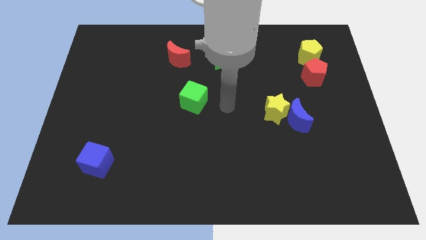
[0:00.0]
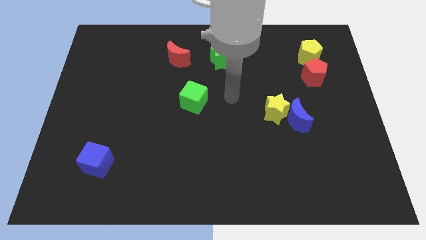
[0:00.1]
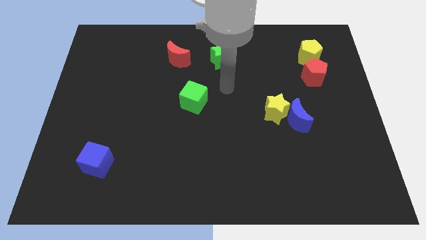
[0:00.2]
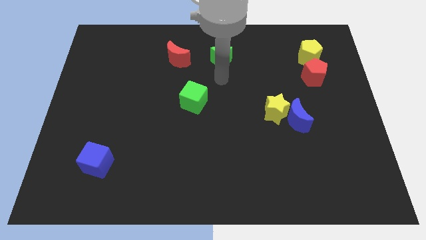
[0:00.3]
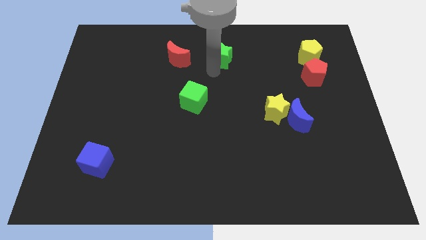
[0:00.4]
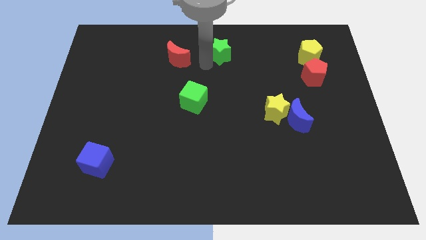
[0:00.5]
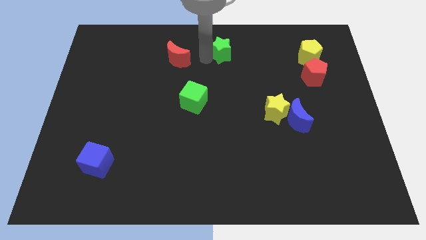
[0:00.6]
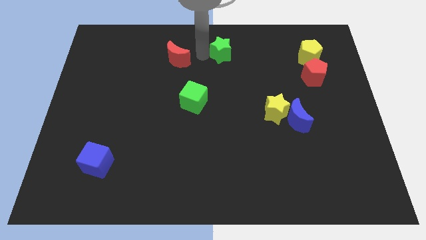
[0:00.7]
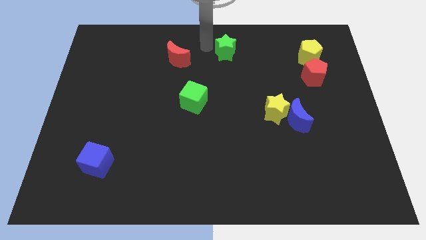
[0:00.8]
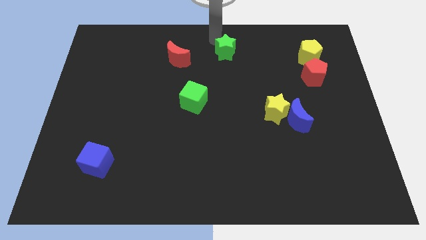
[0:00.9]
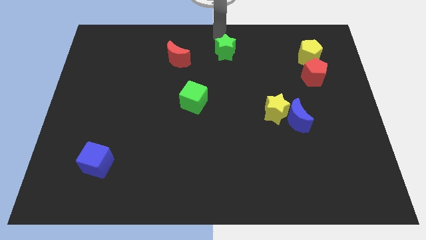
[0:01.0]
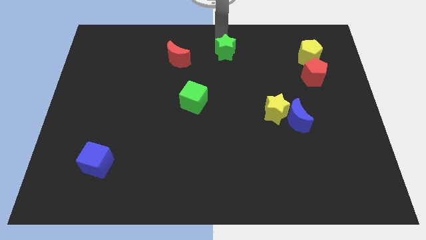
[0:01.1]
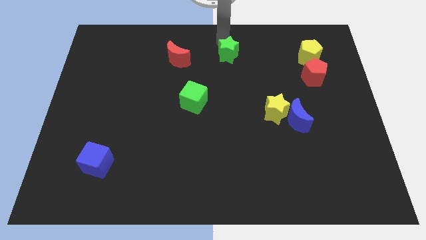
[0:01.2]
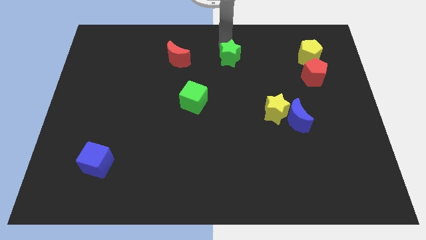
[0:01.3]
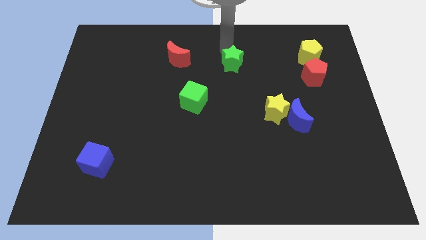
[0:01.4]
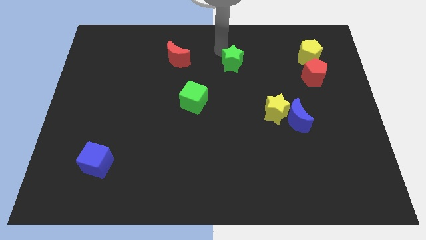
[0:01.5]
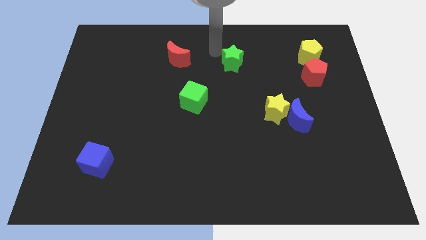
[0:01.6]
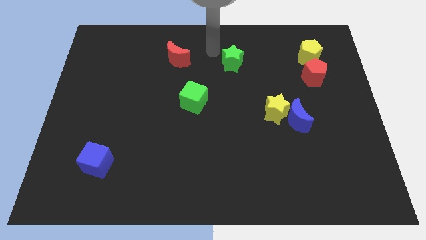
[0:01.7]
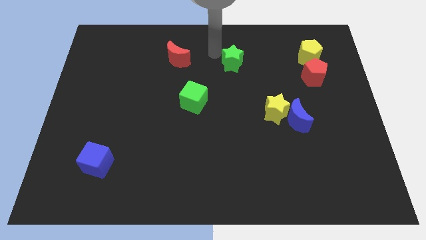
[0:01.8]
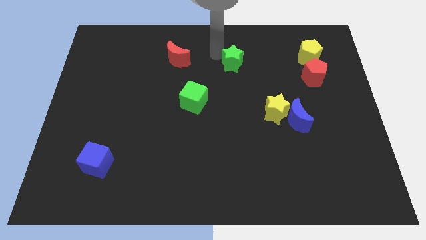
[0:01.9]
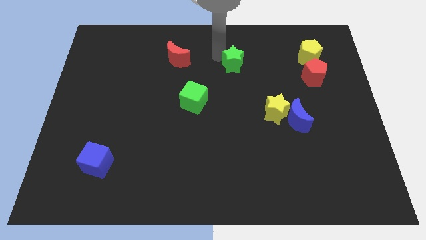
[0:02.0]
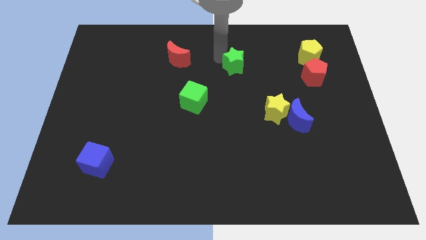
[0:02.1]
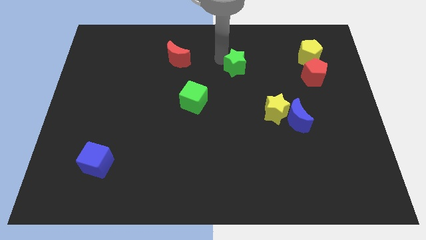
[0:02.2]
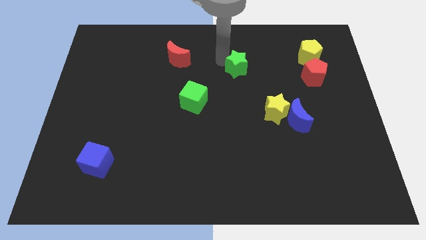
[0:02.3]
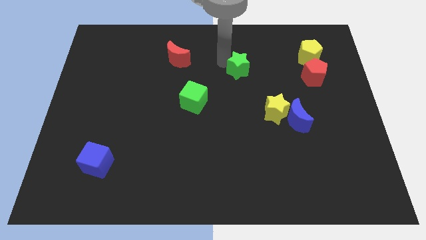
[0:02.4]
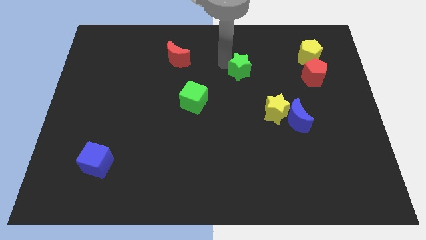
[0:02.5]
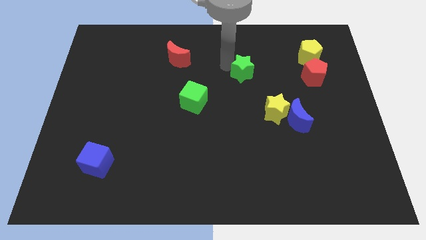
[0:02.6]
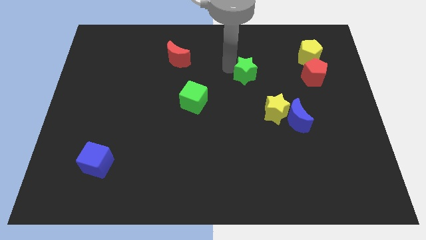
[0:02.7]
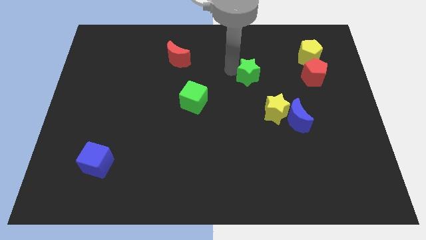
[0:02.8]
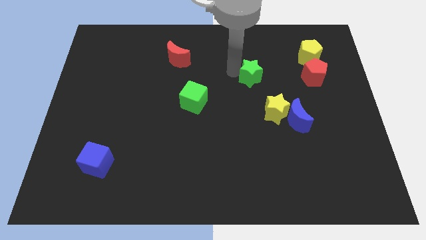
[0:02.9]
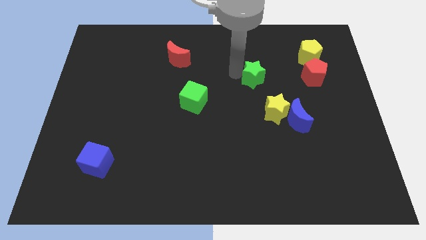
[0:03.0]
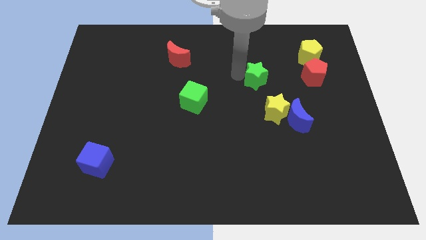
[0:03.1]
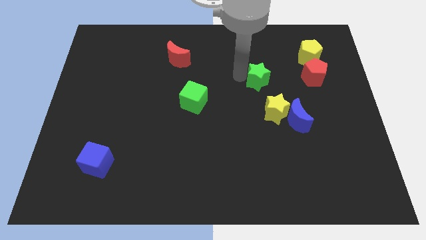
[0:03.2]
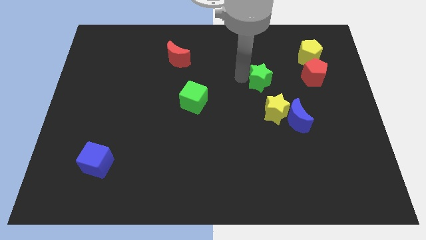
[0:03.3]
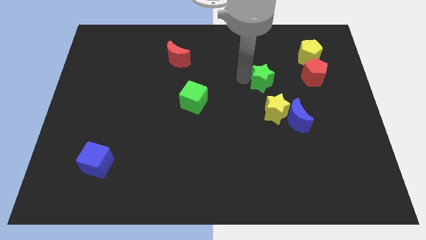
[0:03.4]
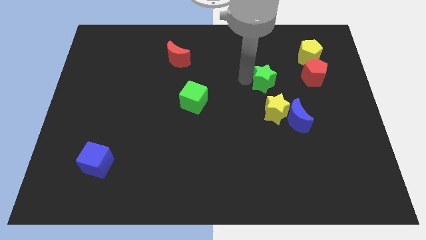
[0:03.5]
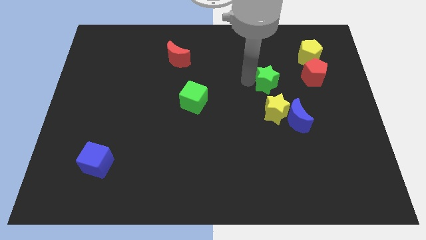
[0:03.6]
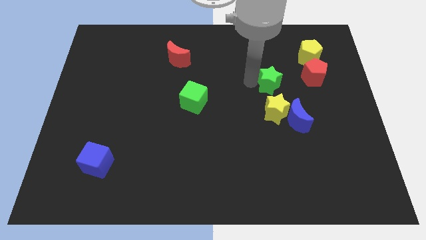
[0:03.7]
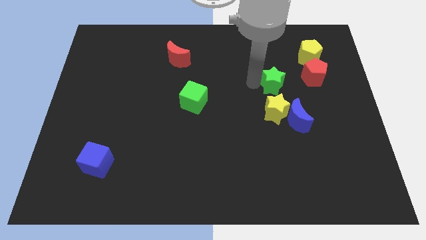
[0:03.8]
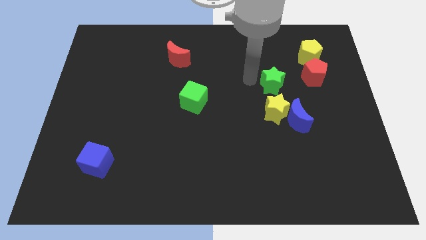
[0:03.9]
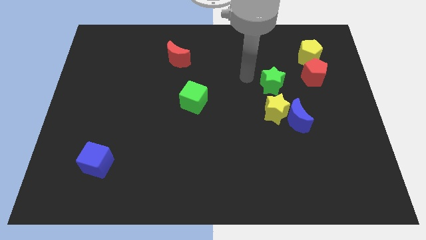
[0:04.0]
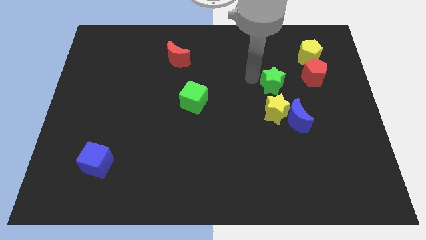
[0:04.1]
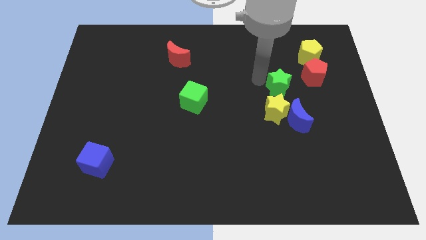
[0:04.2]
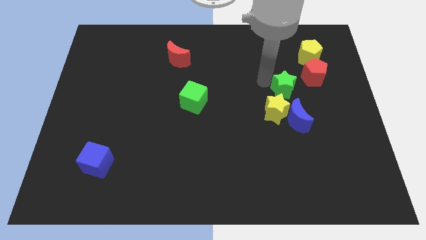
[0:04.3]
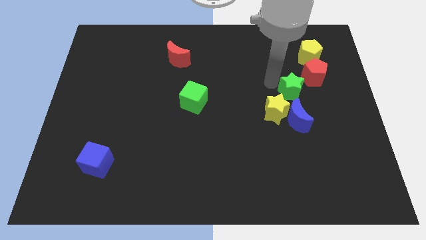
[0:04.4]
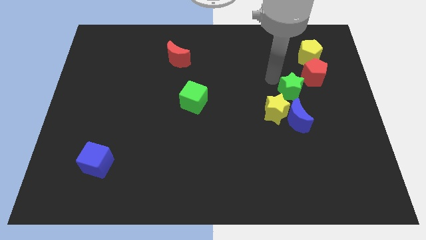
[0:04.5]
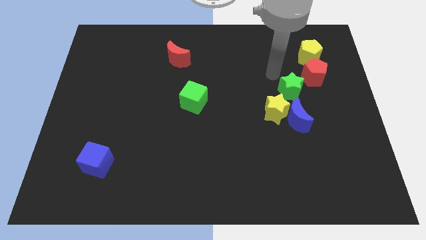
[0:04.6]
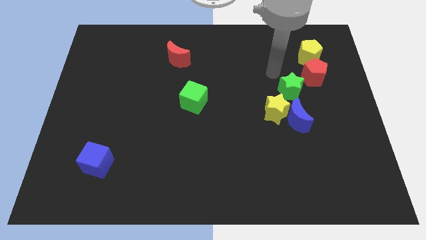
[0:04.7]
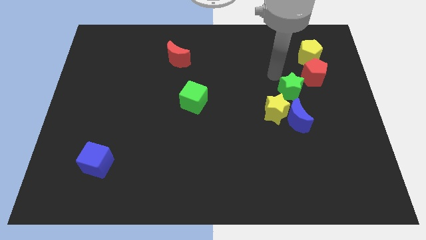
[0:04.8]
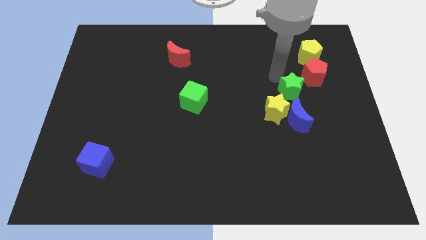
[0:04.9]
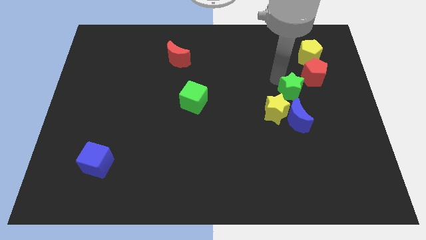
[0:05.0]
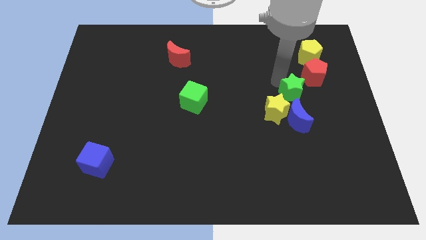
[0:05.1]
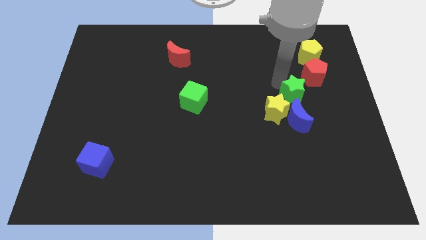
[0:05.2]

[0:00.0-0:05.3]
slide the green star diagonally downwards and right

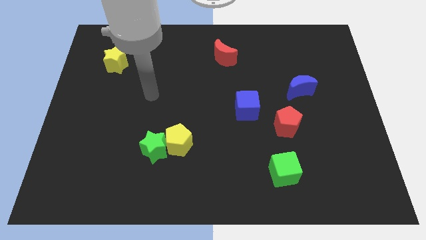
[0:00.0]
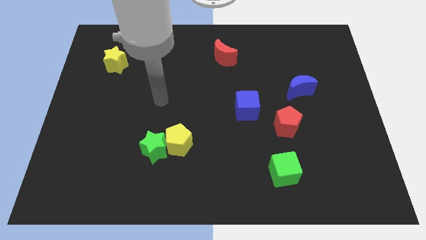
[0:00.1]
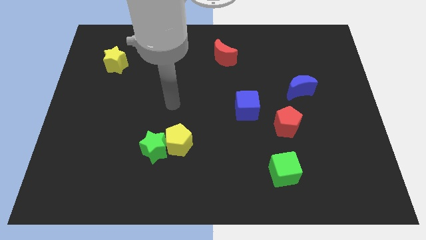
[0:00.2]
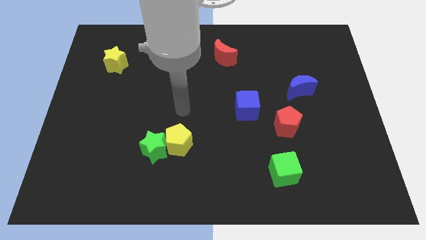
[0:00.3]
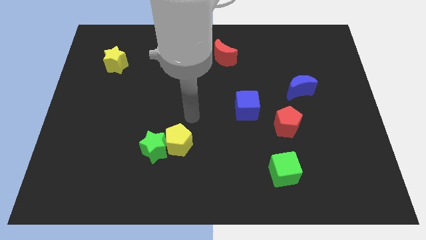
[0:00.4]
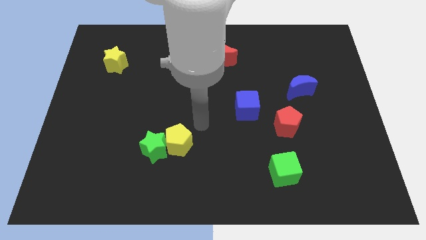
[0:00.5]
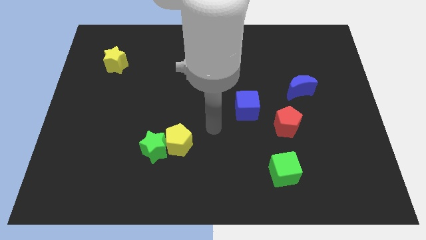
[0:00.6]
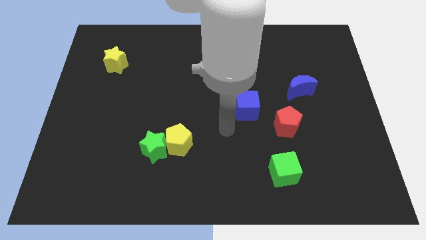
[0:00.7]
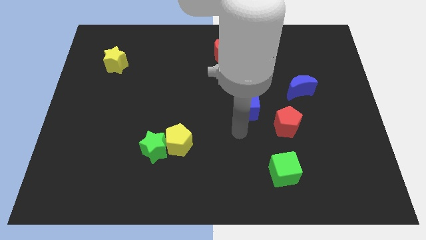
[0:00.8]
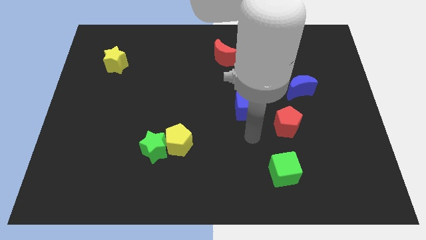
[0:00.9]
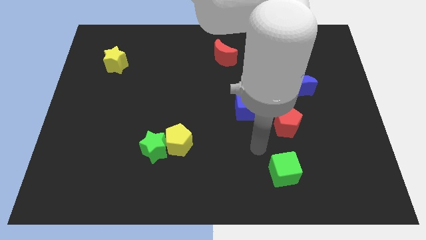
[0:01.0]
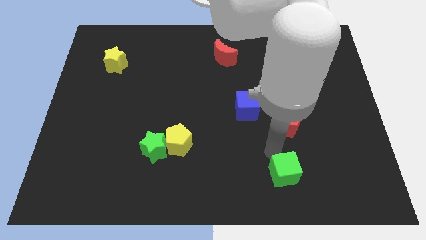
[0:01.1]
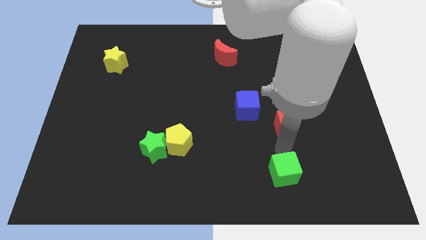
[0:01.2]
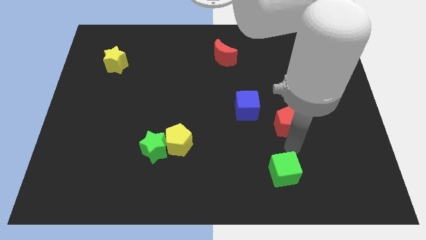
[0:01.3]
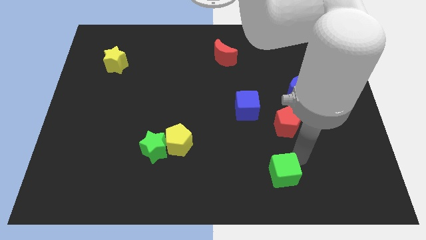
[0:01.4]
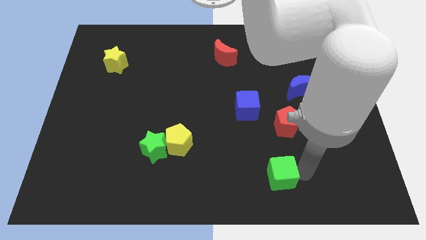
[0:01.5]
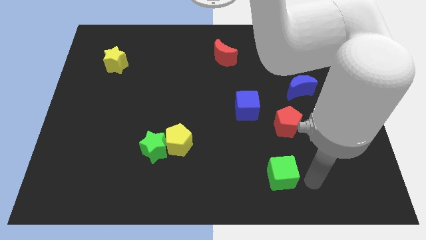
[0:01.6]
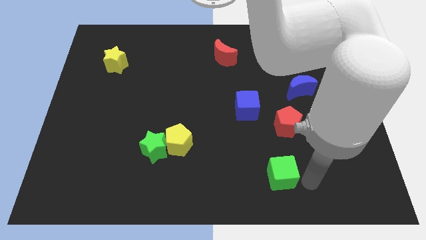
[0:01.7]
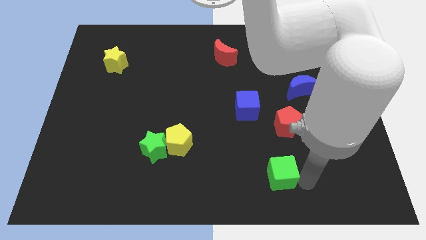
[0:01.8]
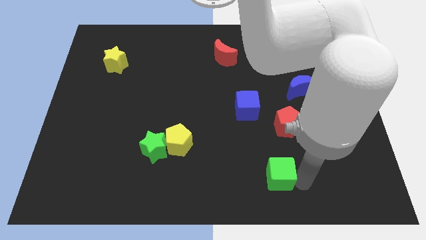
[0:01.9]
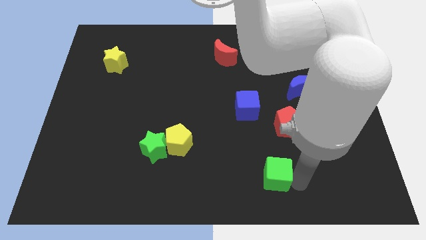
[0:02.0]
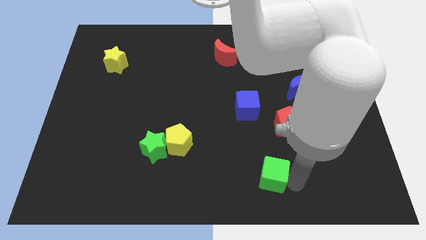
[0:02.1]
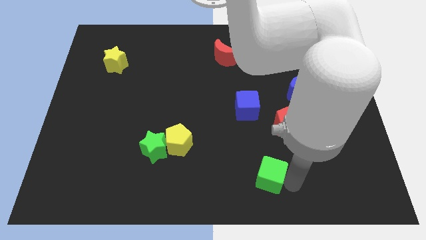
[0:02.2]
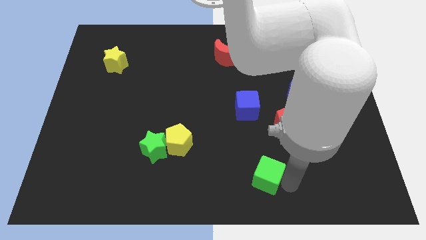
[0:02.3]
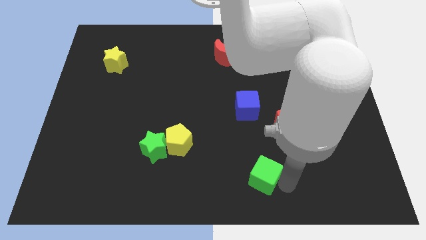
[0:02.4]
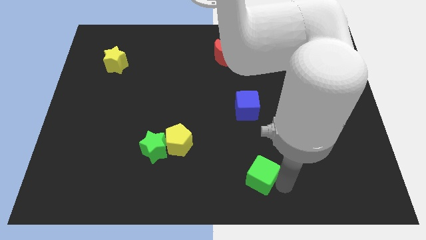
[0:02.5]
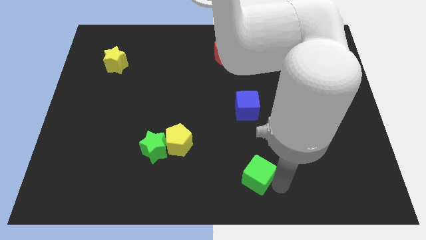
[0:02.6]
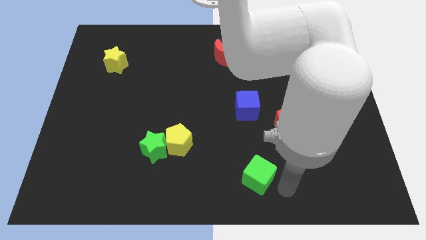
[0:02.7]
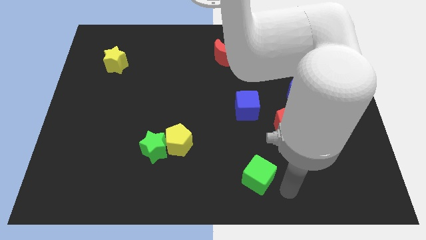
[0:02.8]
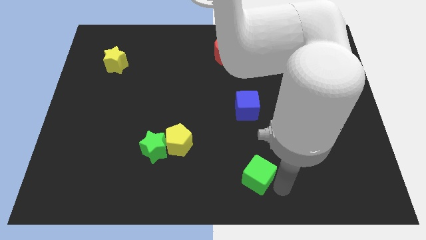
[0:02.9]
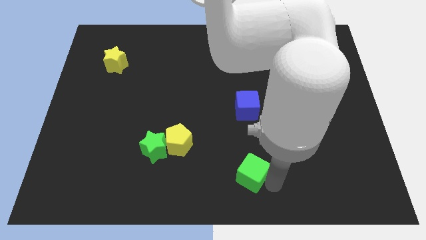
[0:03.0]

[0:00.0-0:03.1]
push the green cube left a bit
